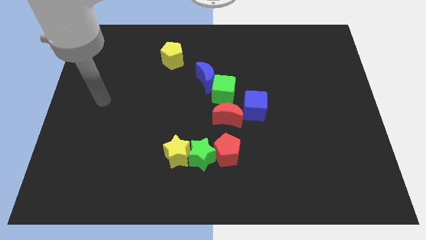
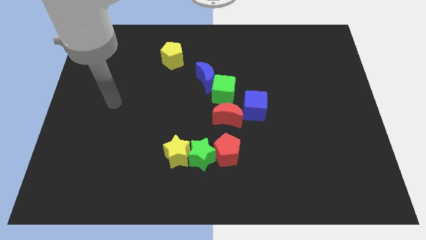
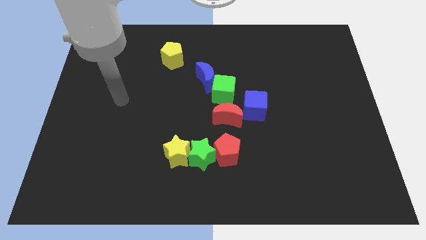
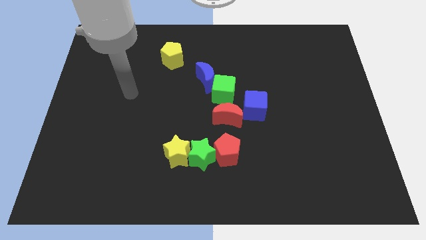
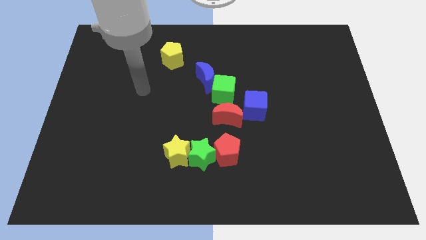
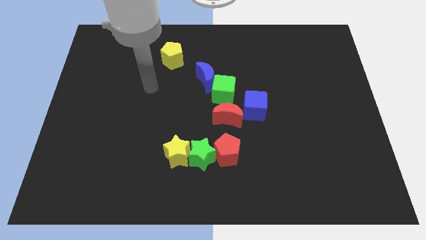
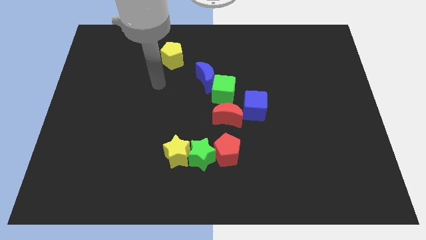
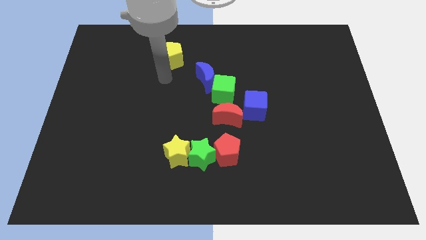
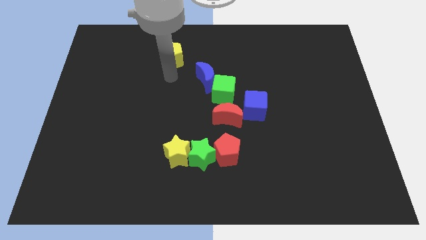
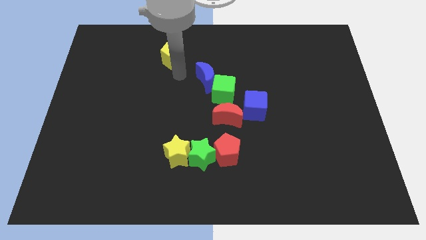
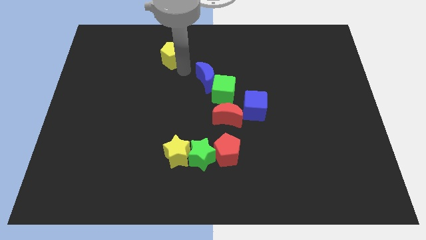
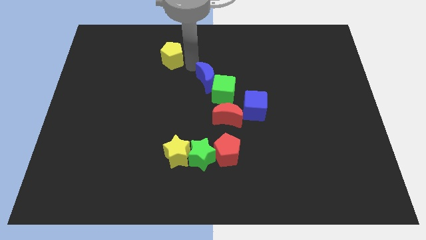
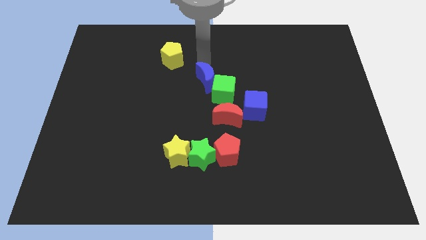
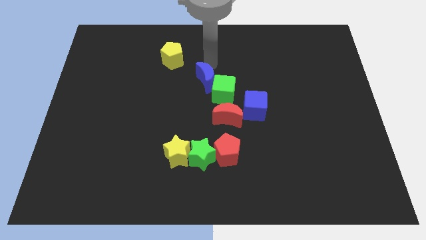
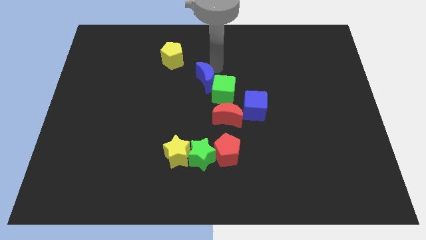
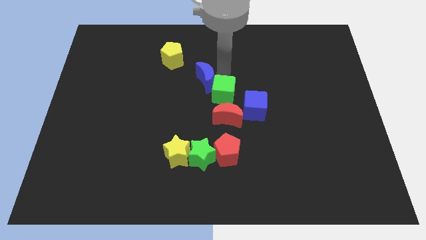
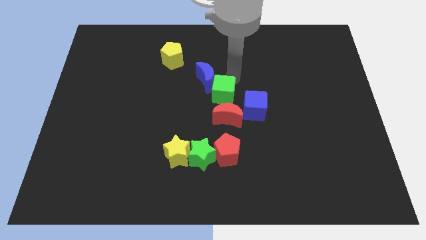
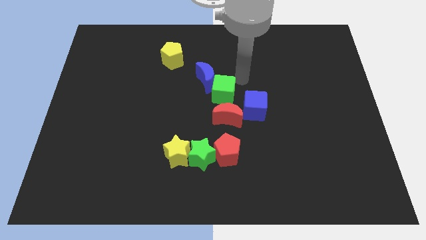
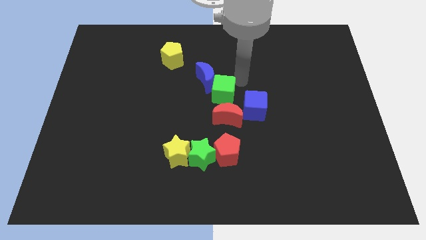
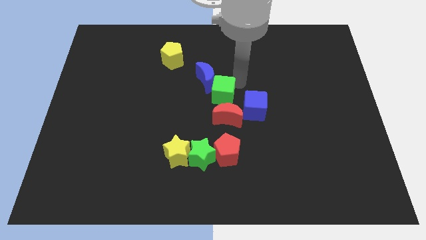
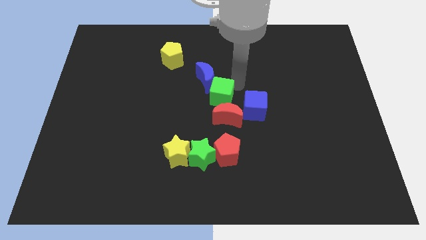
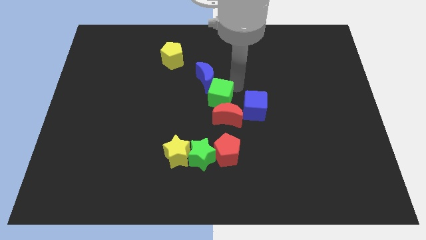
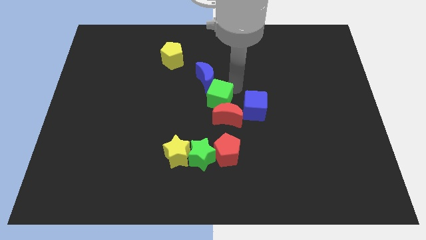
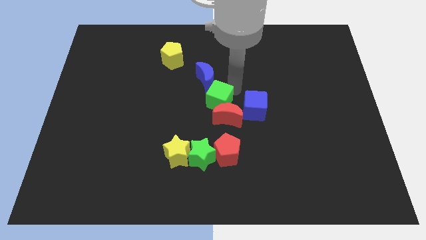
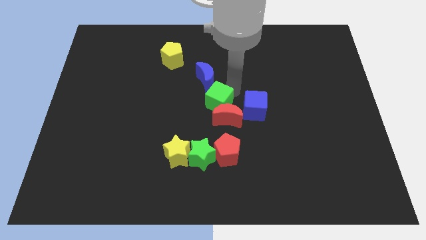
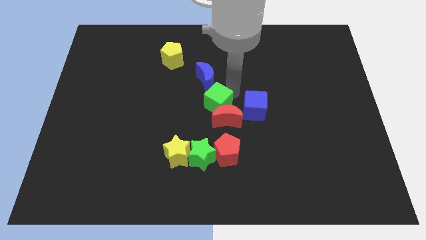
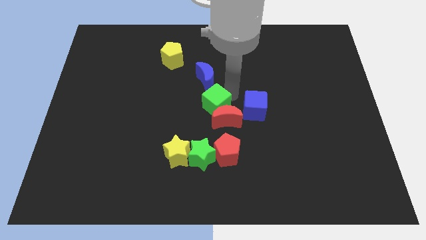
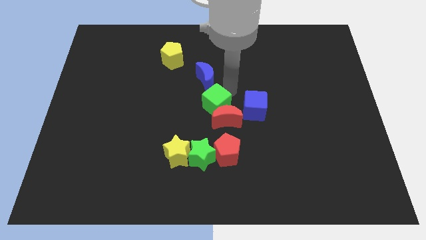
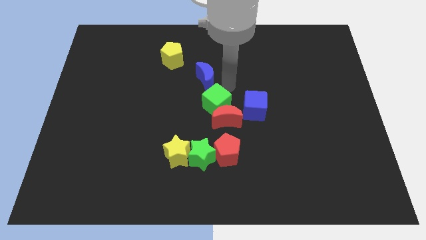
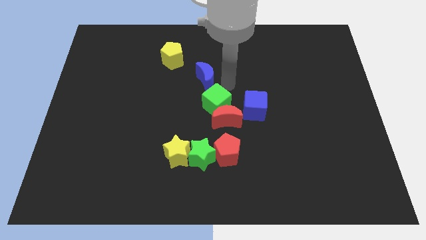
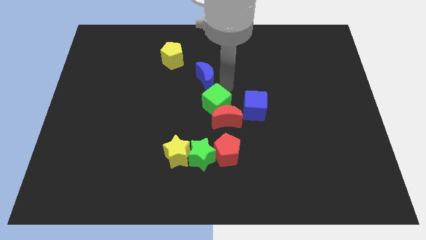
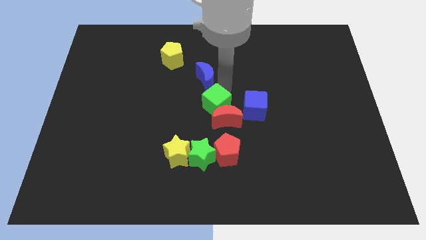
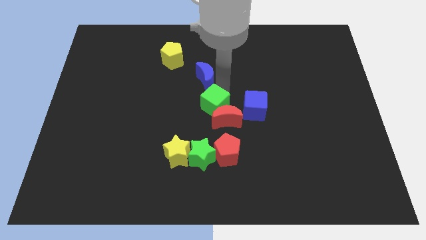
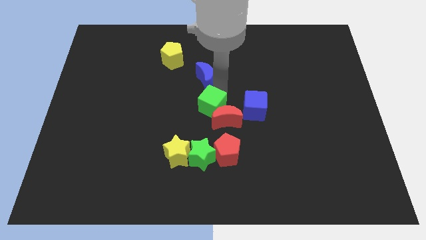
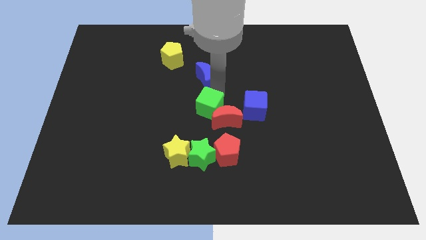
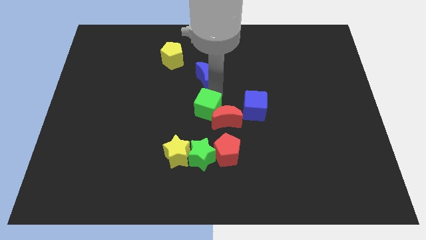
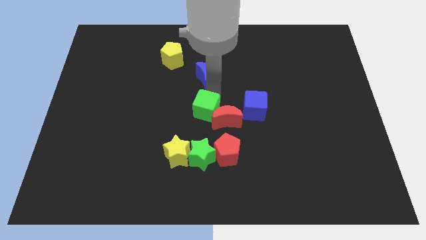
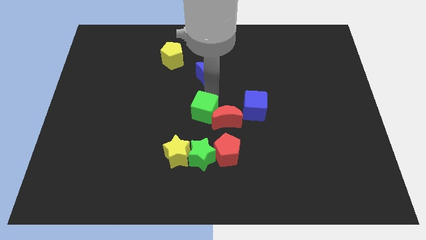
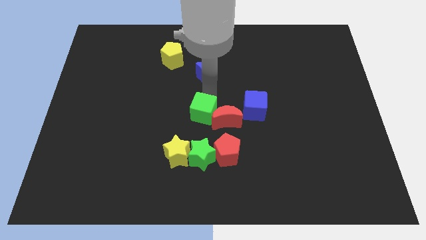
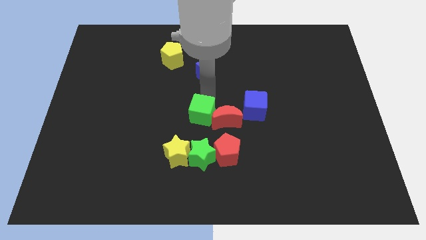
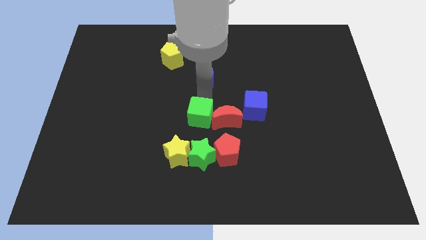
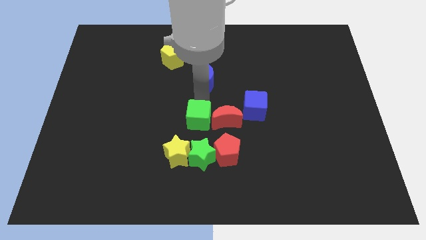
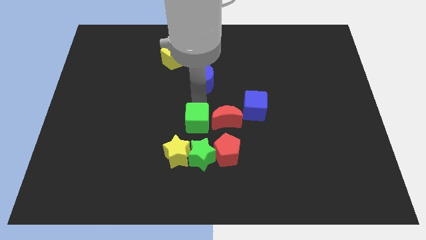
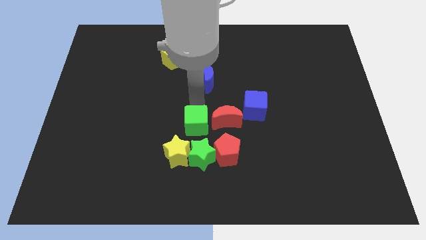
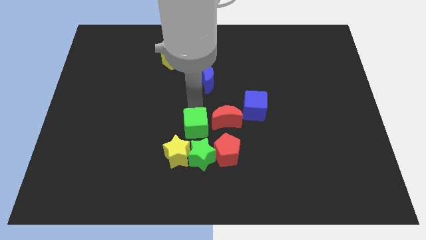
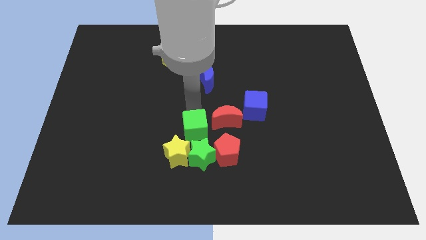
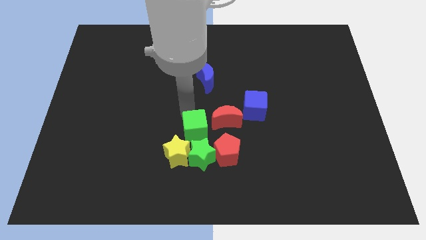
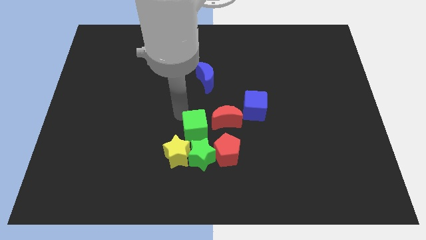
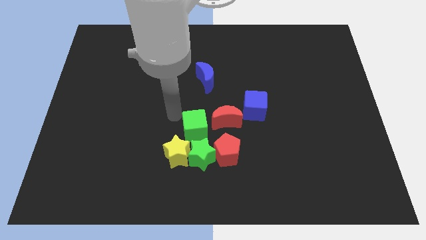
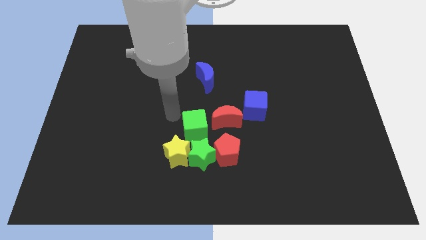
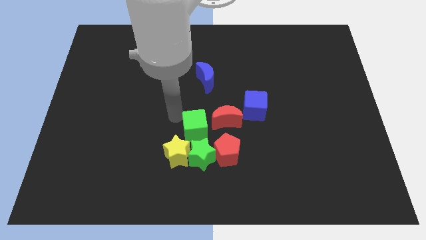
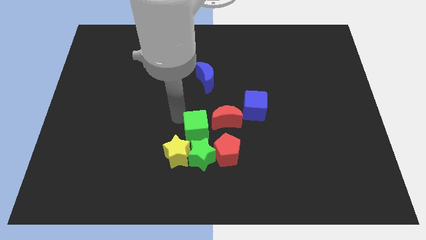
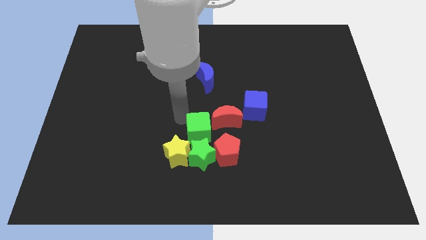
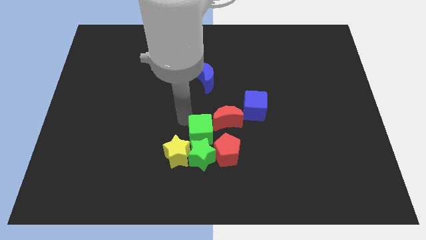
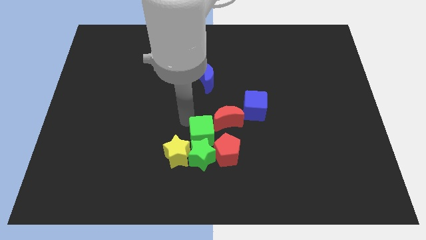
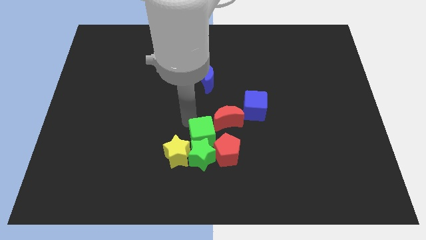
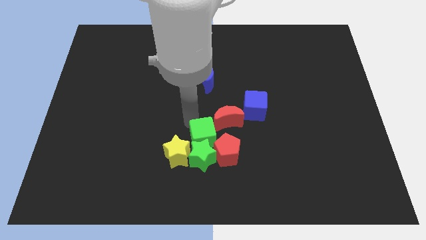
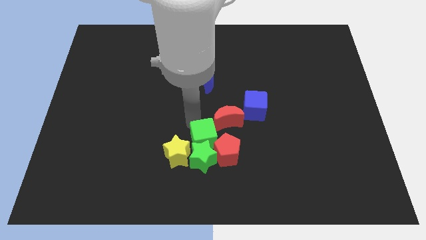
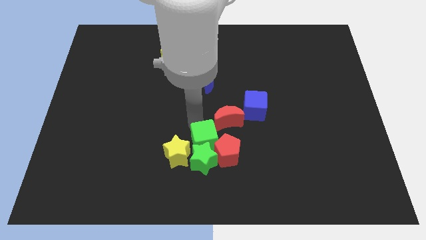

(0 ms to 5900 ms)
push the green cube next to the red pentagon

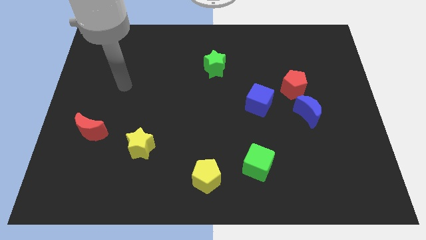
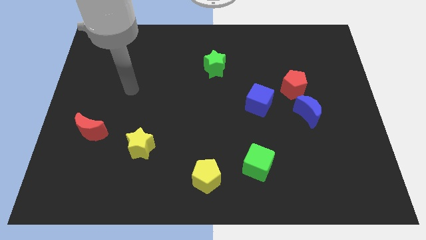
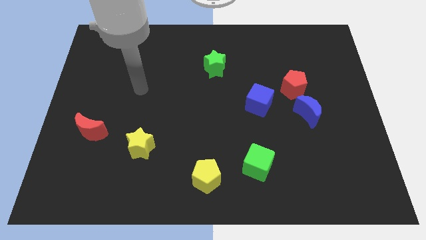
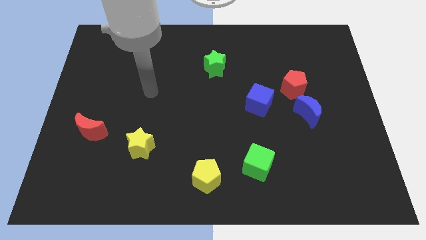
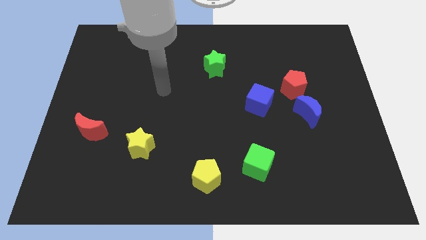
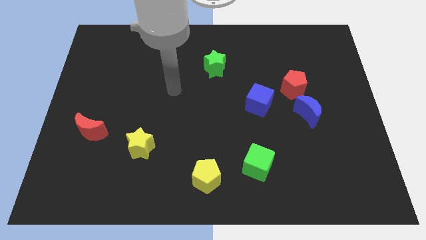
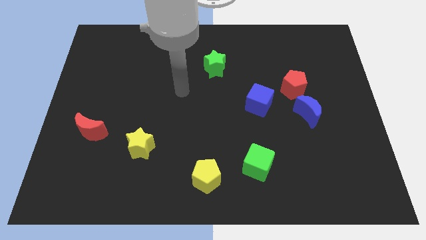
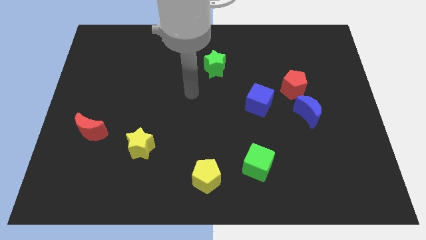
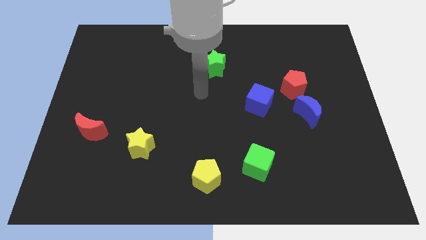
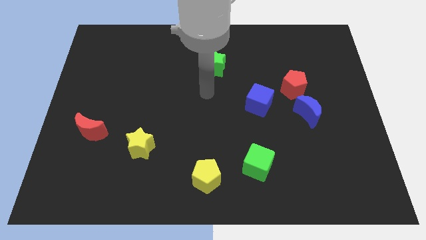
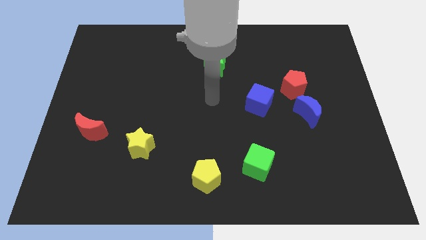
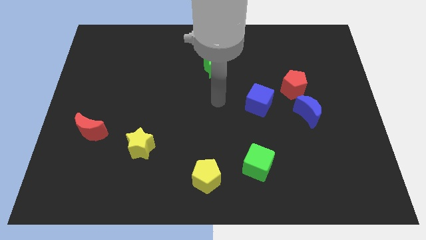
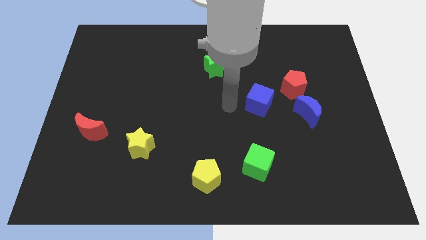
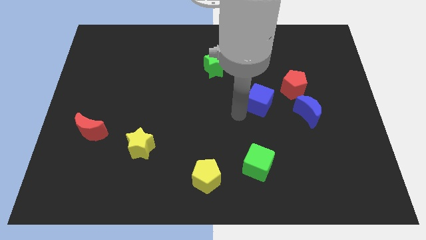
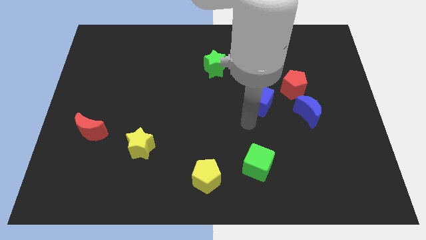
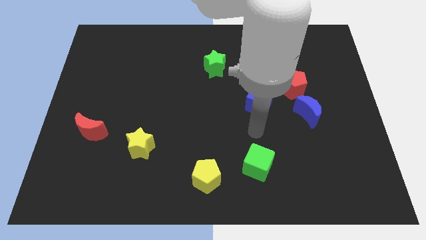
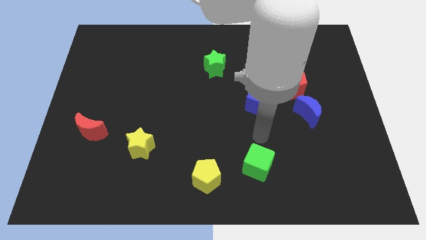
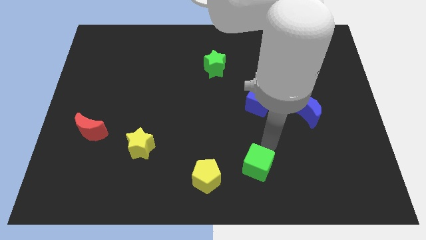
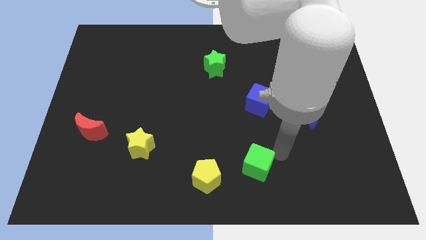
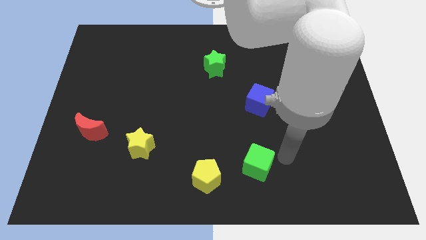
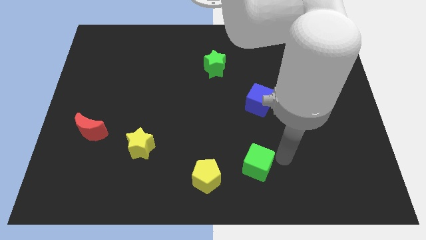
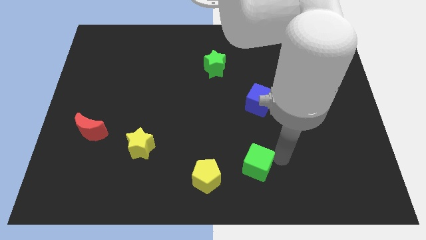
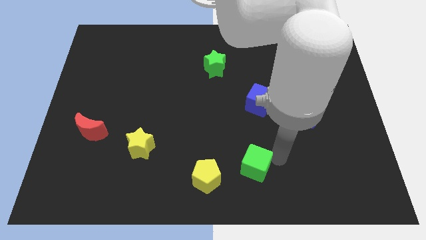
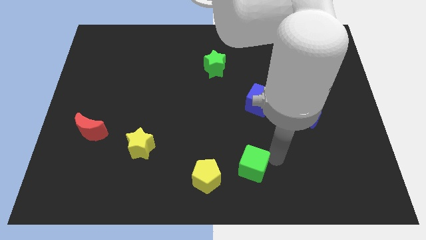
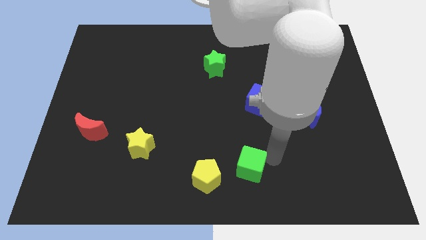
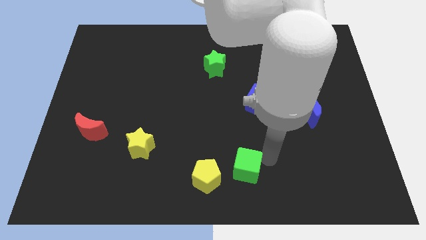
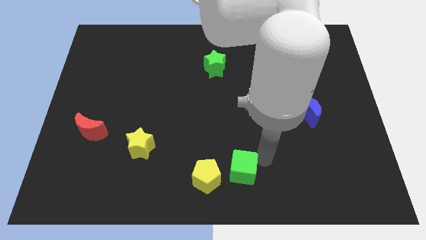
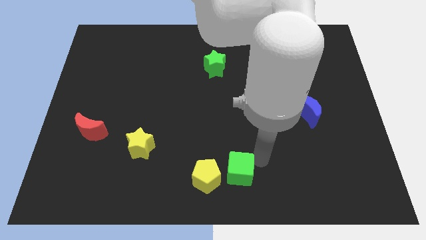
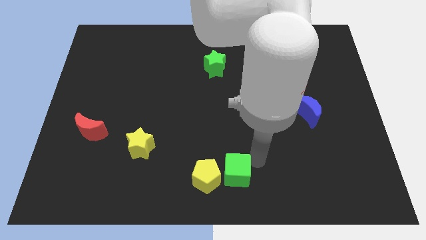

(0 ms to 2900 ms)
put the green cube next to the yellow pentagon
